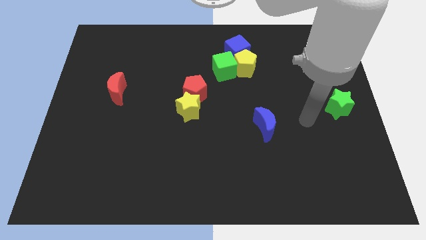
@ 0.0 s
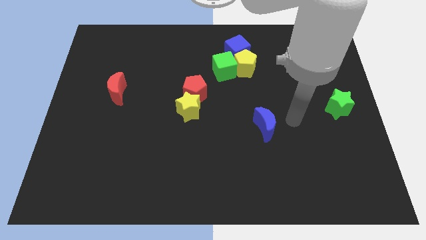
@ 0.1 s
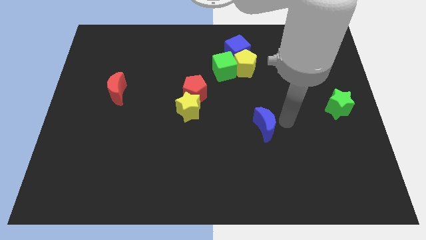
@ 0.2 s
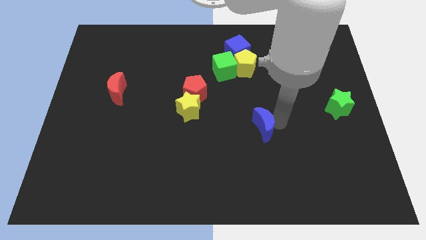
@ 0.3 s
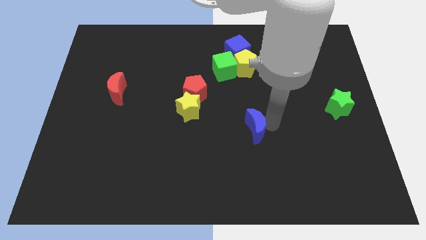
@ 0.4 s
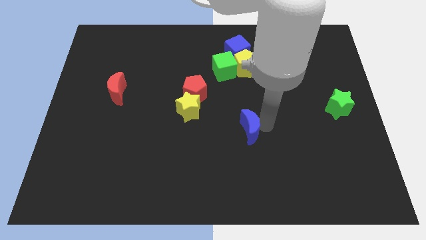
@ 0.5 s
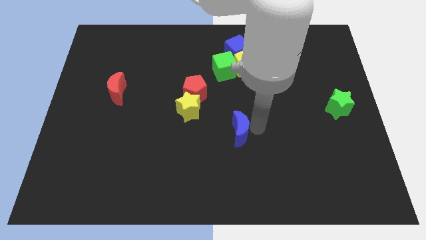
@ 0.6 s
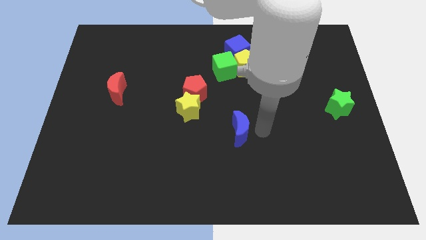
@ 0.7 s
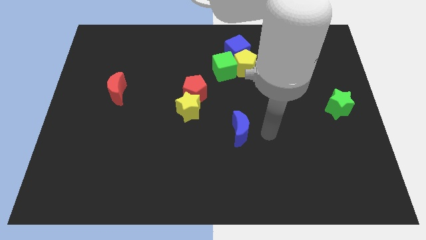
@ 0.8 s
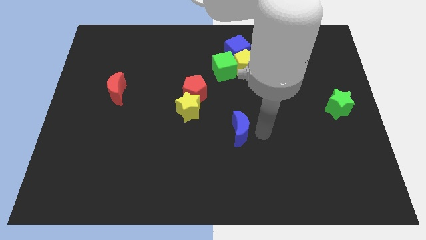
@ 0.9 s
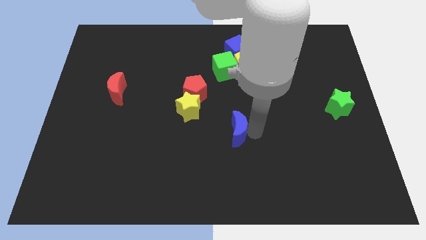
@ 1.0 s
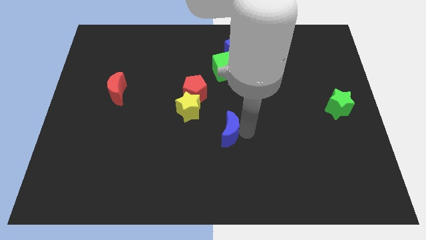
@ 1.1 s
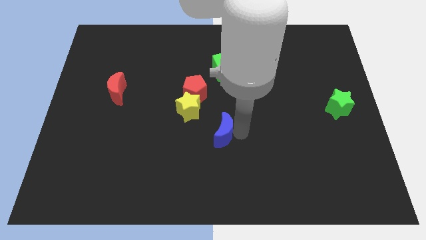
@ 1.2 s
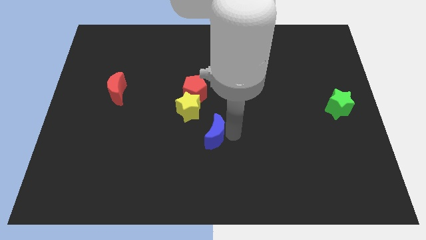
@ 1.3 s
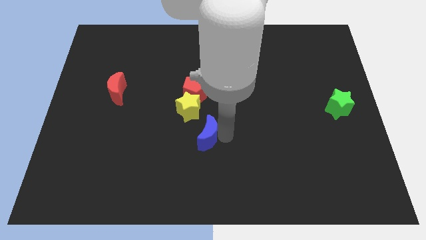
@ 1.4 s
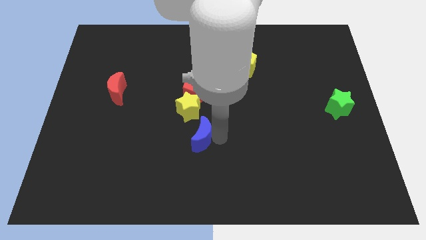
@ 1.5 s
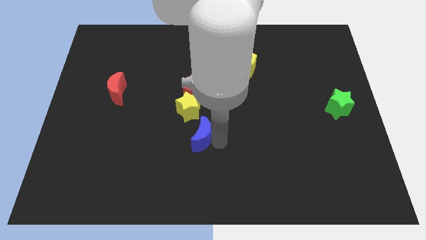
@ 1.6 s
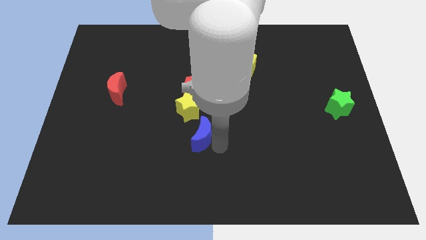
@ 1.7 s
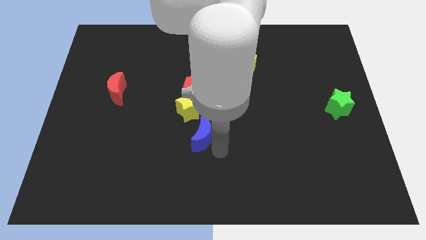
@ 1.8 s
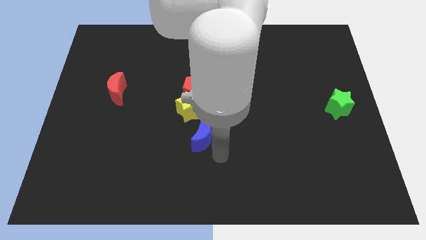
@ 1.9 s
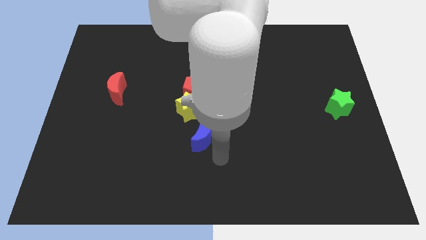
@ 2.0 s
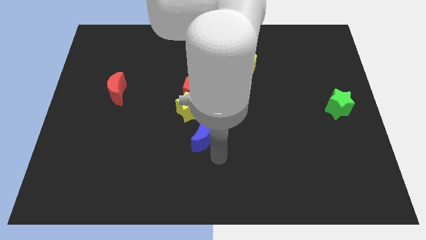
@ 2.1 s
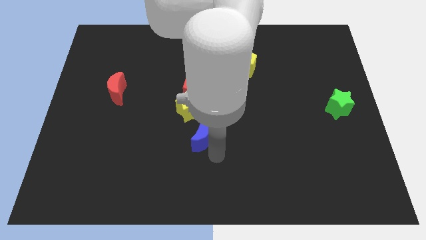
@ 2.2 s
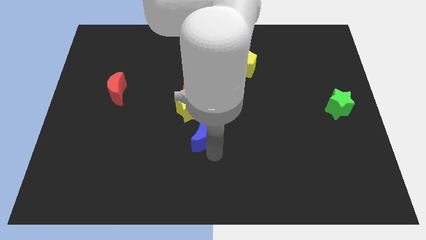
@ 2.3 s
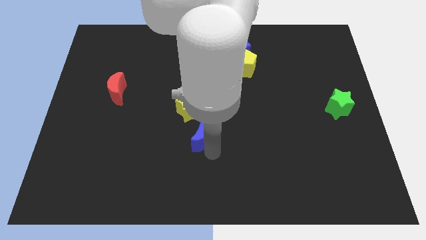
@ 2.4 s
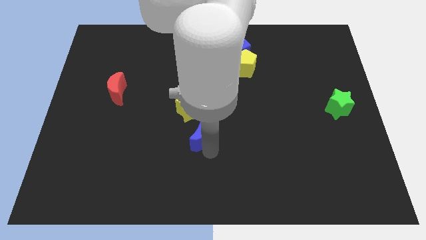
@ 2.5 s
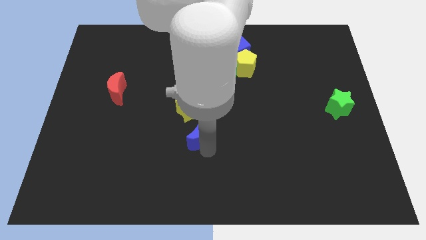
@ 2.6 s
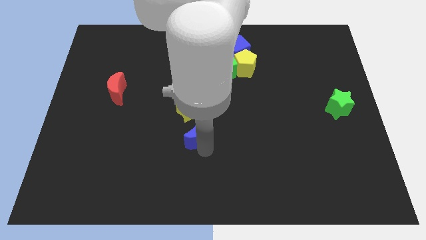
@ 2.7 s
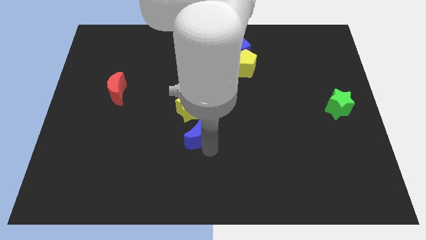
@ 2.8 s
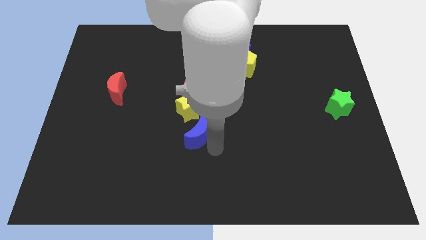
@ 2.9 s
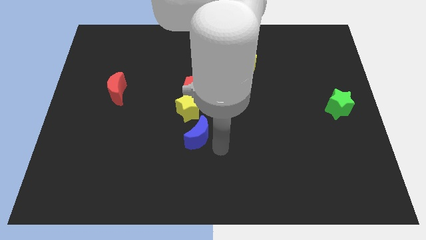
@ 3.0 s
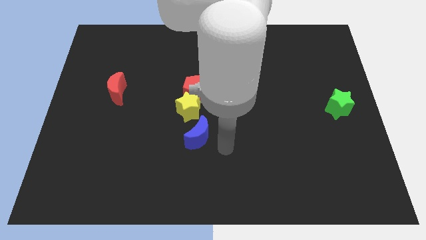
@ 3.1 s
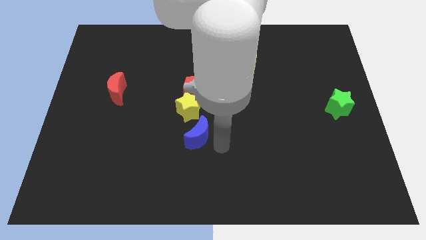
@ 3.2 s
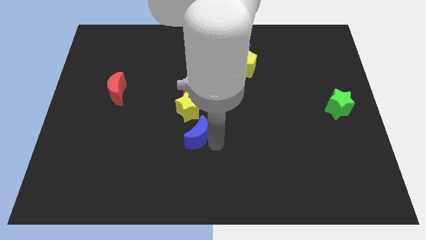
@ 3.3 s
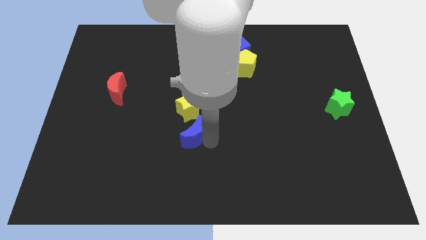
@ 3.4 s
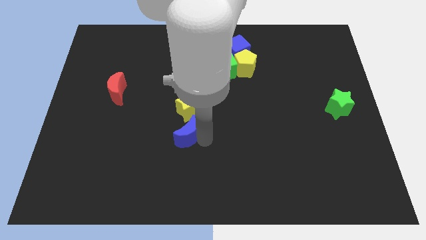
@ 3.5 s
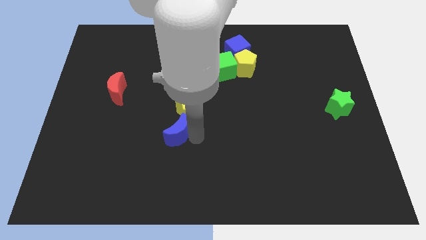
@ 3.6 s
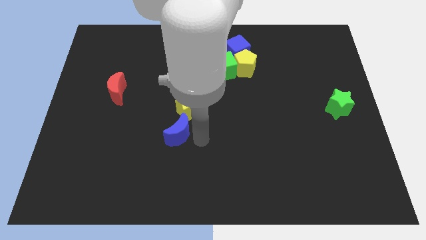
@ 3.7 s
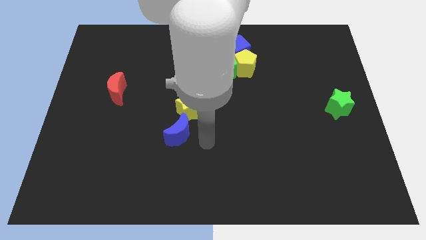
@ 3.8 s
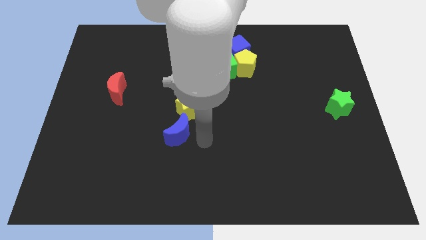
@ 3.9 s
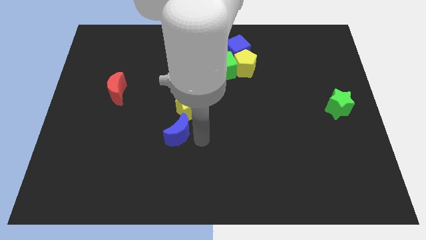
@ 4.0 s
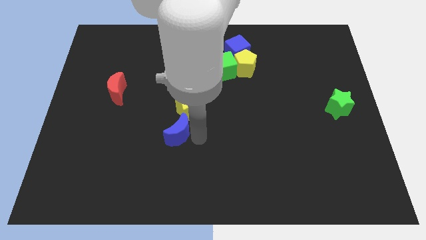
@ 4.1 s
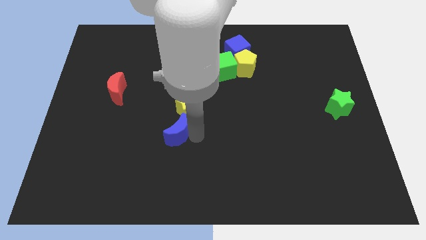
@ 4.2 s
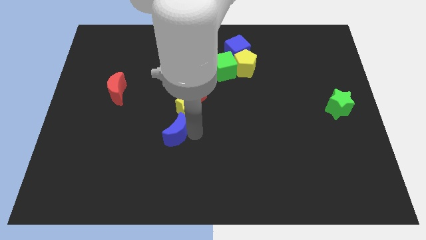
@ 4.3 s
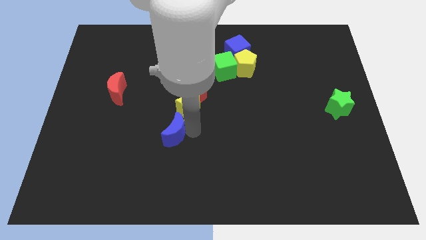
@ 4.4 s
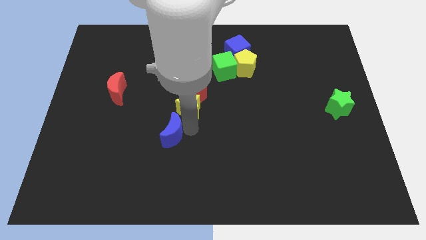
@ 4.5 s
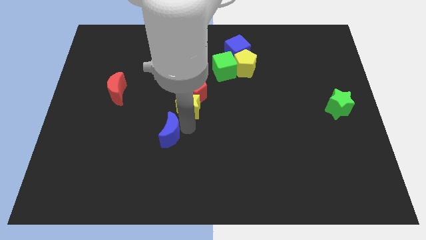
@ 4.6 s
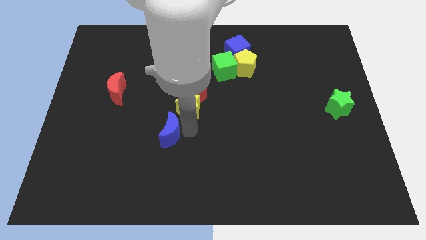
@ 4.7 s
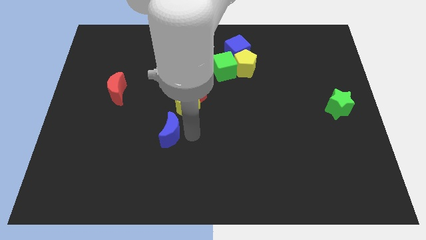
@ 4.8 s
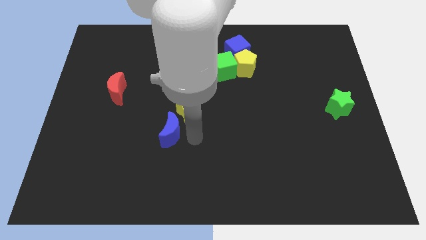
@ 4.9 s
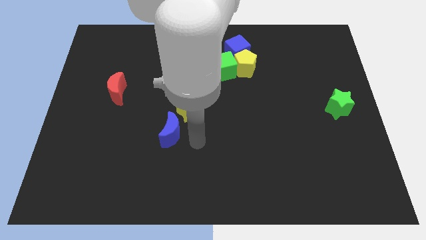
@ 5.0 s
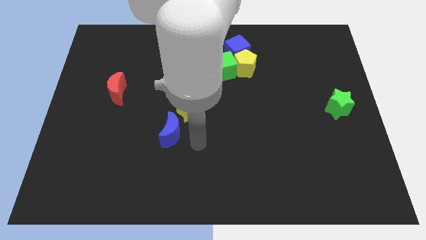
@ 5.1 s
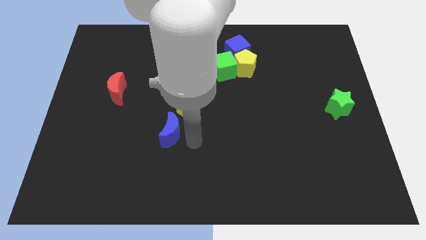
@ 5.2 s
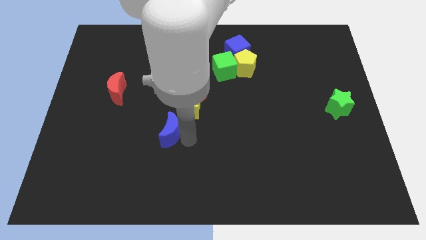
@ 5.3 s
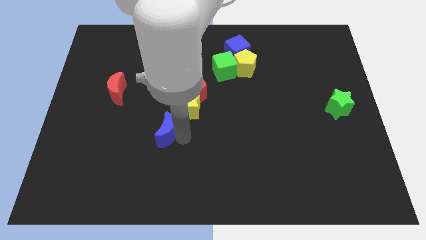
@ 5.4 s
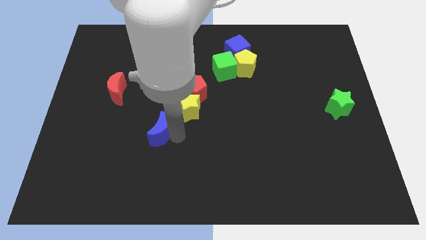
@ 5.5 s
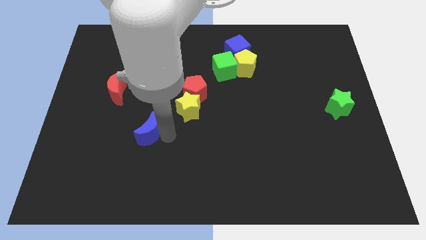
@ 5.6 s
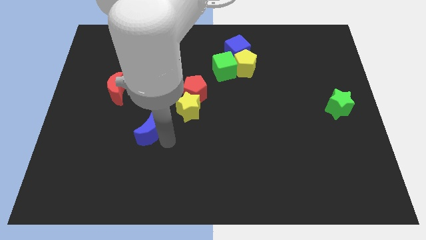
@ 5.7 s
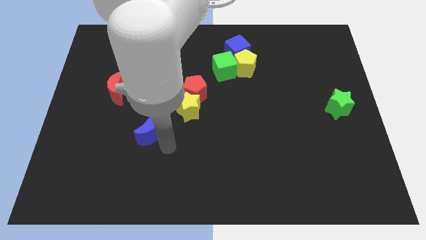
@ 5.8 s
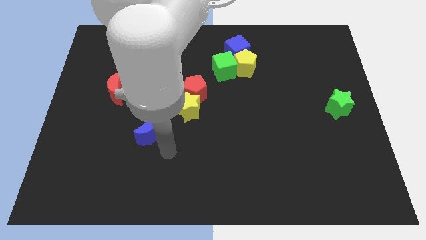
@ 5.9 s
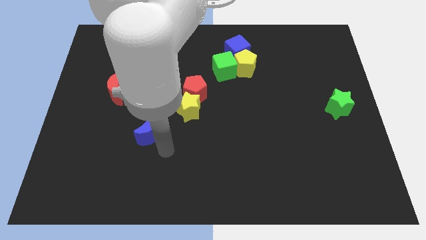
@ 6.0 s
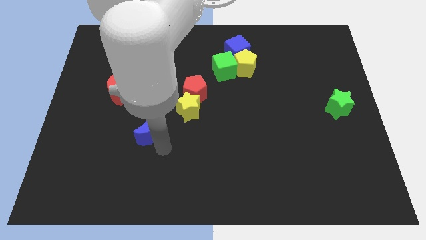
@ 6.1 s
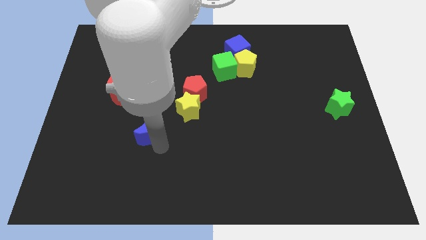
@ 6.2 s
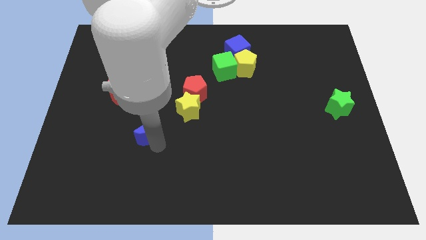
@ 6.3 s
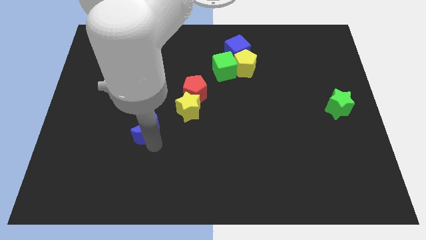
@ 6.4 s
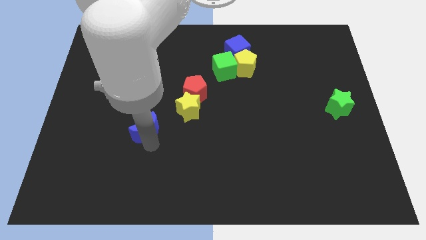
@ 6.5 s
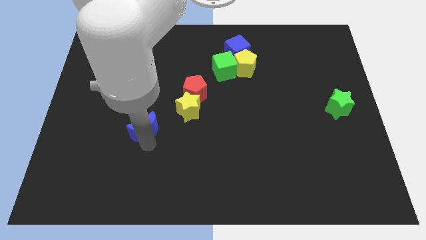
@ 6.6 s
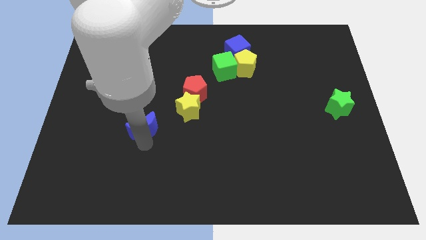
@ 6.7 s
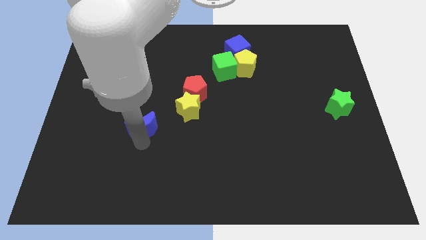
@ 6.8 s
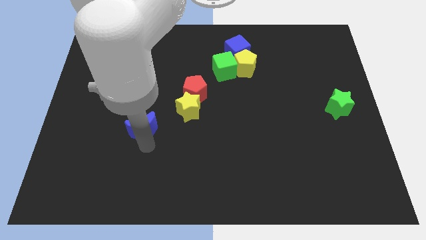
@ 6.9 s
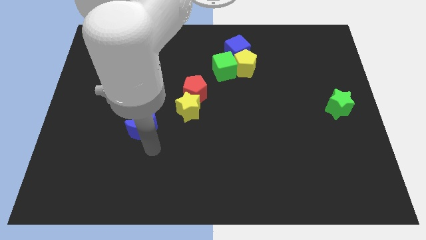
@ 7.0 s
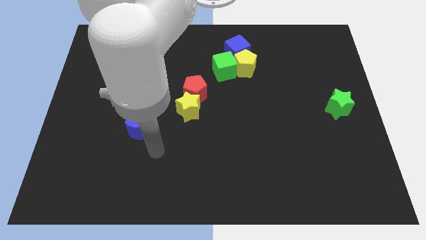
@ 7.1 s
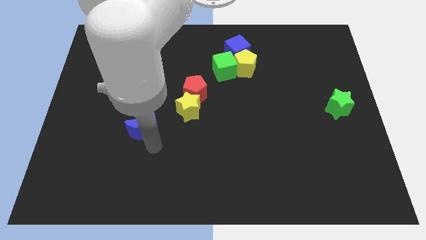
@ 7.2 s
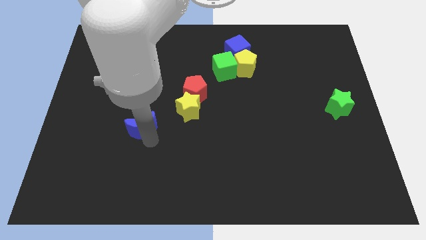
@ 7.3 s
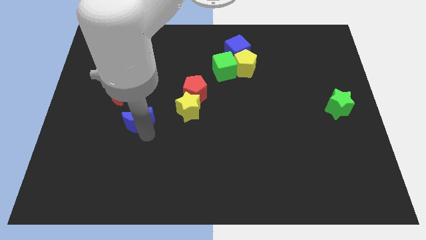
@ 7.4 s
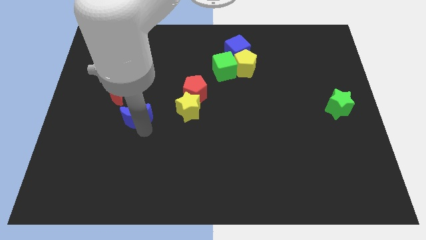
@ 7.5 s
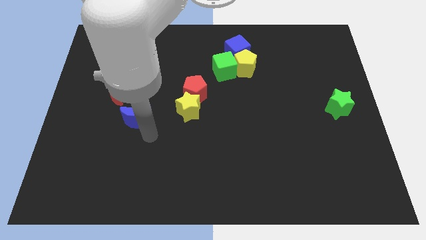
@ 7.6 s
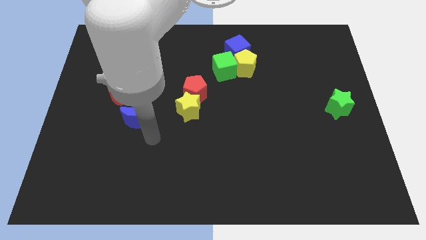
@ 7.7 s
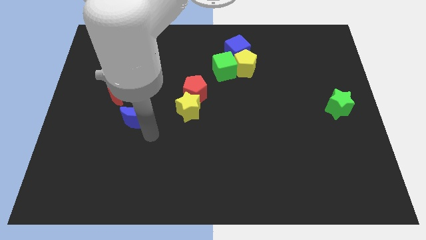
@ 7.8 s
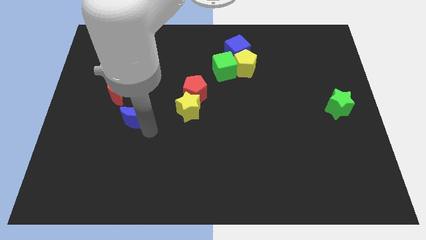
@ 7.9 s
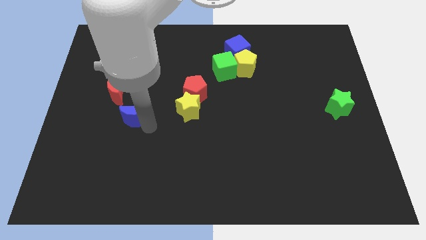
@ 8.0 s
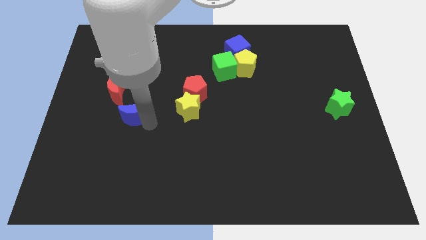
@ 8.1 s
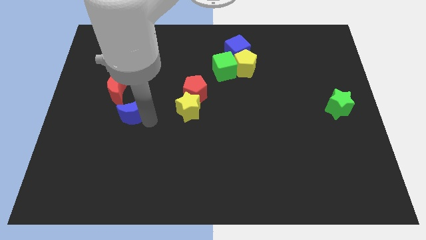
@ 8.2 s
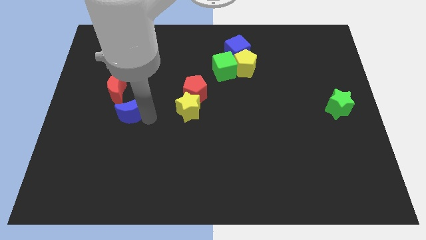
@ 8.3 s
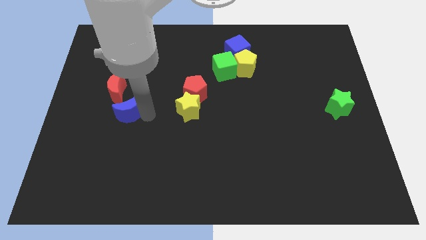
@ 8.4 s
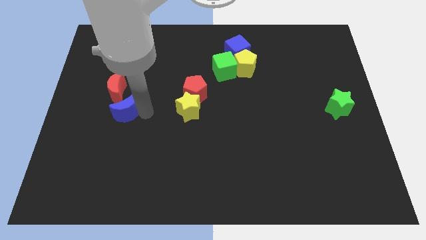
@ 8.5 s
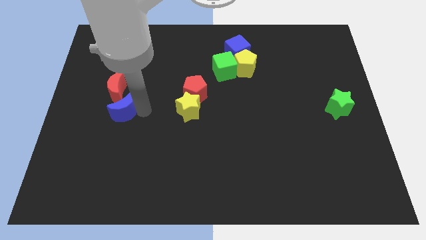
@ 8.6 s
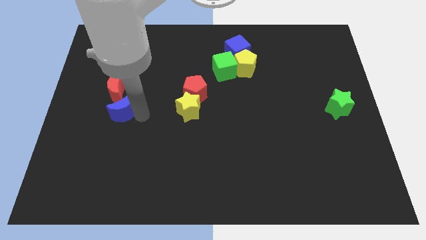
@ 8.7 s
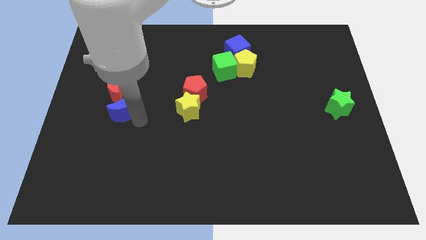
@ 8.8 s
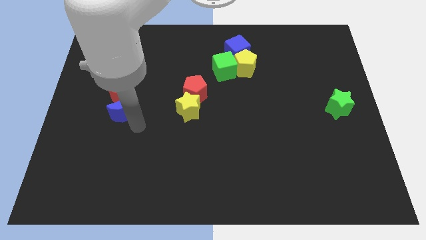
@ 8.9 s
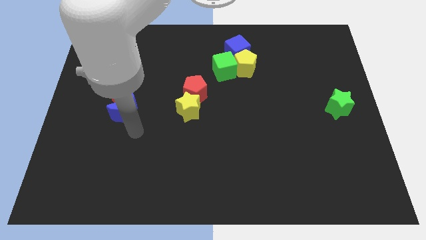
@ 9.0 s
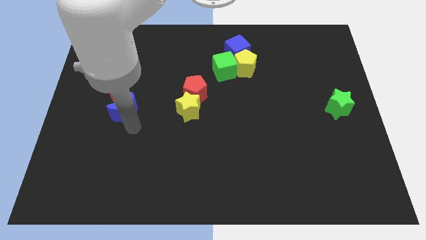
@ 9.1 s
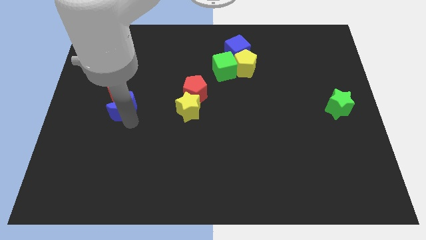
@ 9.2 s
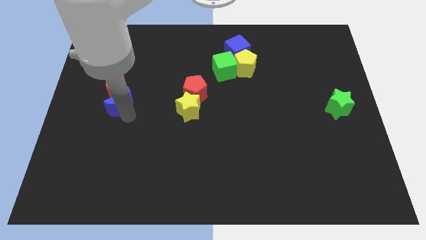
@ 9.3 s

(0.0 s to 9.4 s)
put the blue moon to the red moon
